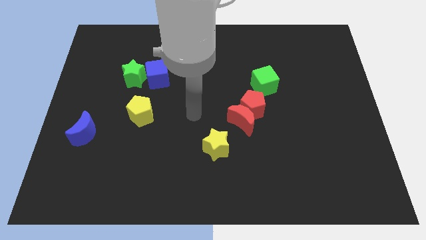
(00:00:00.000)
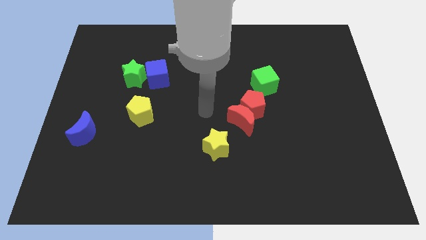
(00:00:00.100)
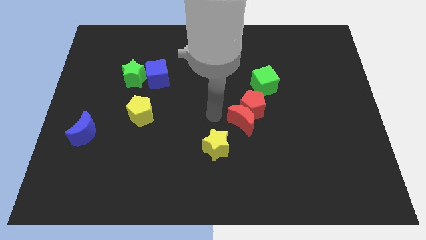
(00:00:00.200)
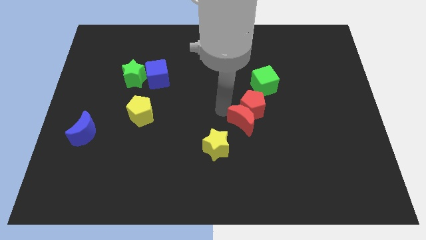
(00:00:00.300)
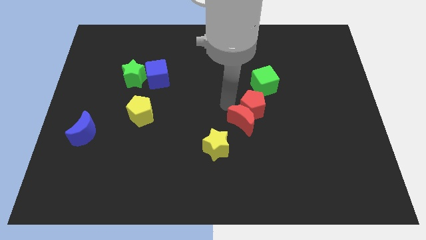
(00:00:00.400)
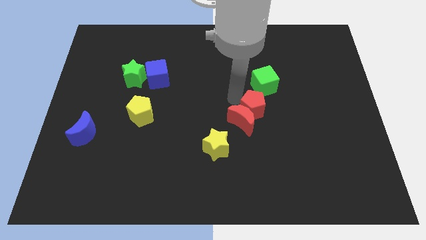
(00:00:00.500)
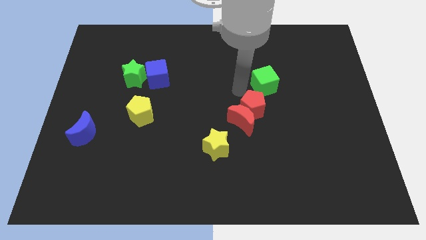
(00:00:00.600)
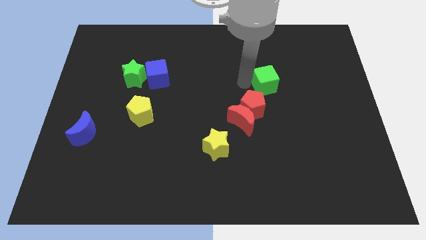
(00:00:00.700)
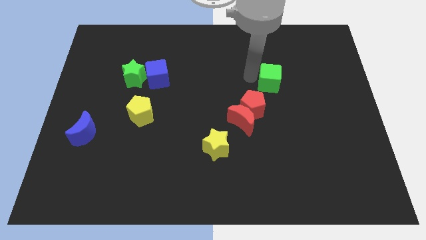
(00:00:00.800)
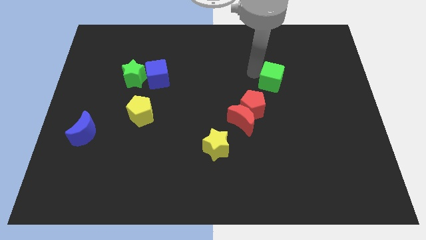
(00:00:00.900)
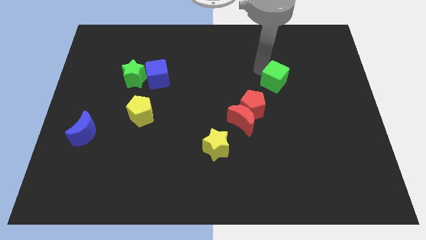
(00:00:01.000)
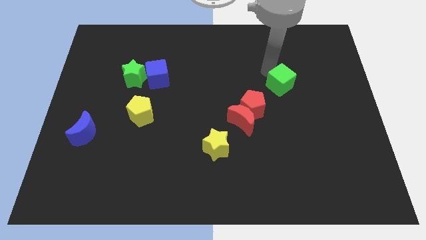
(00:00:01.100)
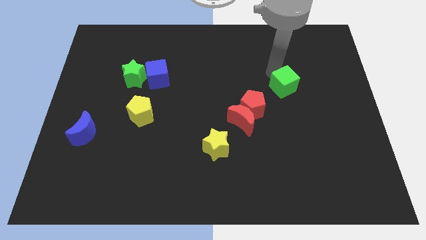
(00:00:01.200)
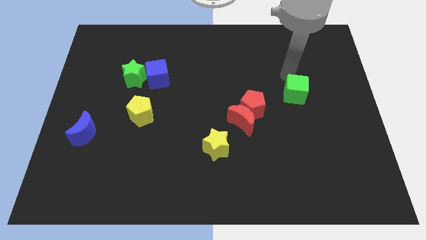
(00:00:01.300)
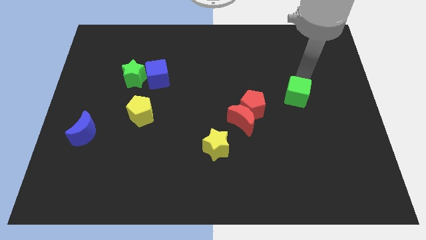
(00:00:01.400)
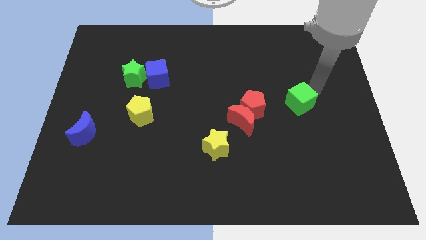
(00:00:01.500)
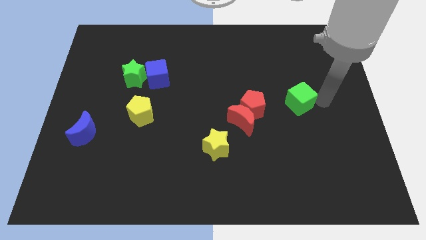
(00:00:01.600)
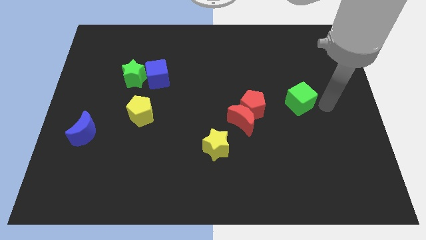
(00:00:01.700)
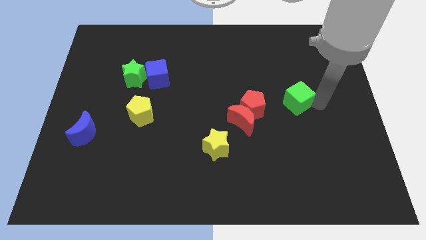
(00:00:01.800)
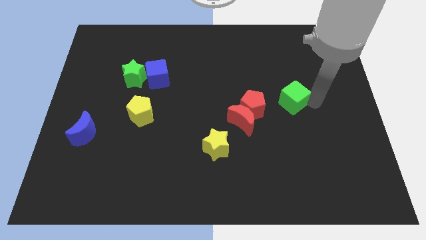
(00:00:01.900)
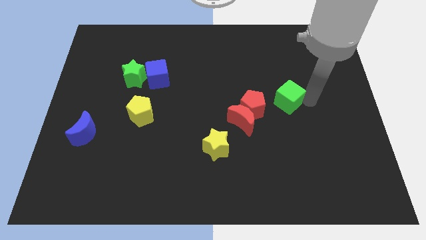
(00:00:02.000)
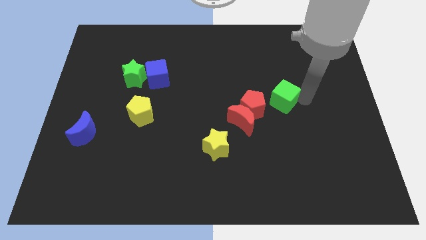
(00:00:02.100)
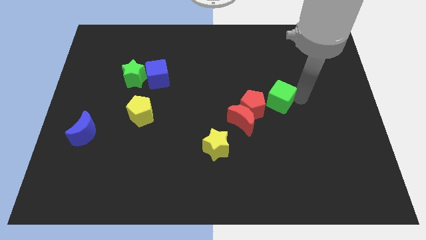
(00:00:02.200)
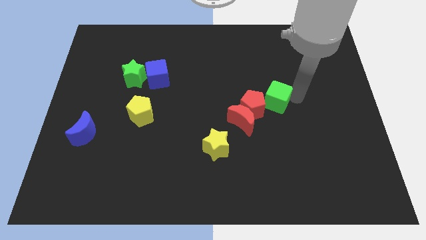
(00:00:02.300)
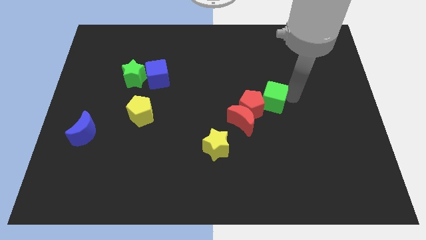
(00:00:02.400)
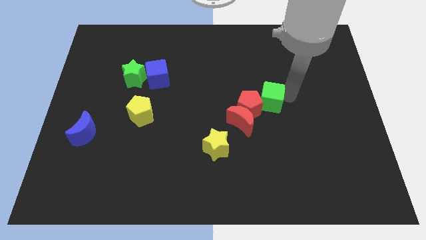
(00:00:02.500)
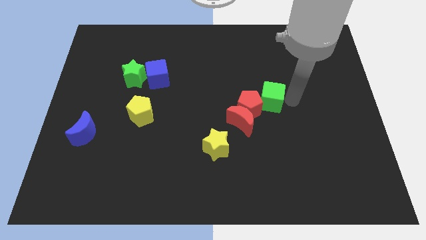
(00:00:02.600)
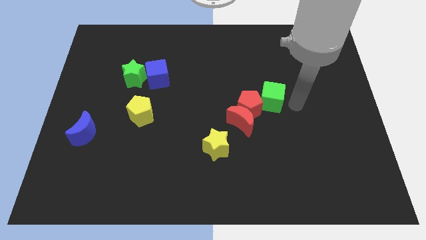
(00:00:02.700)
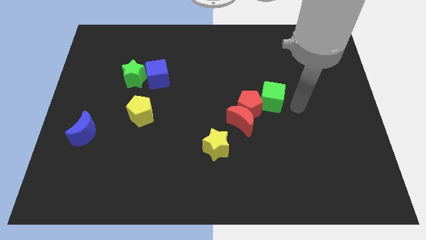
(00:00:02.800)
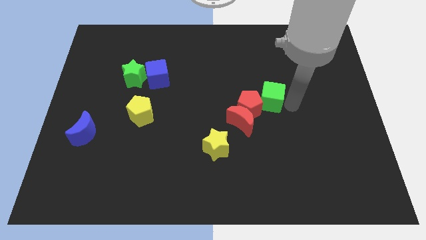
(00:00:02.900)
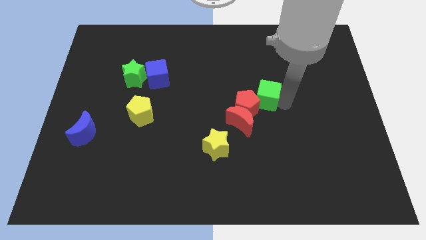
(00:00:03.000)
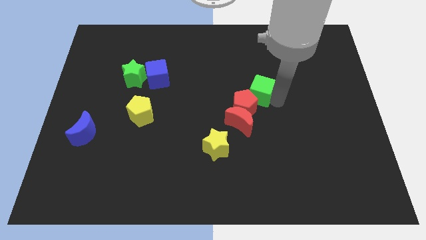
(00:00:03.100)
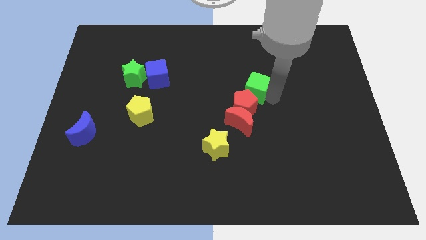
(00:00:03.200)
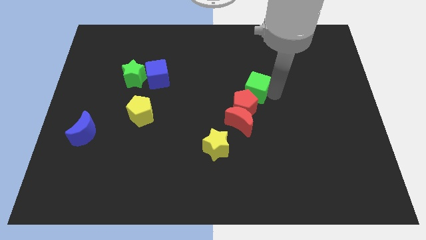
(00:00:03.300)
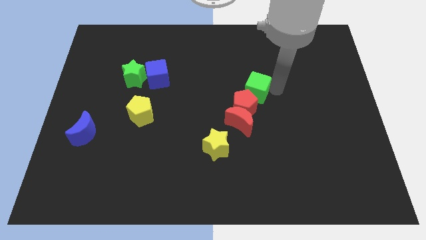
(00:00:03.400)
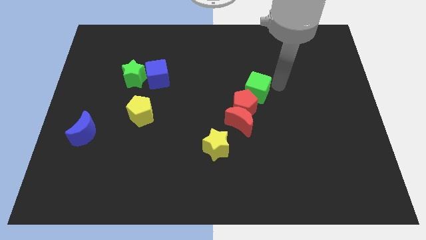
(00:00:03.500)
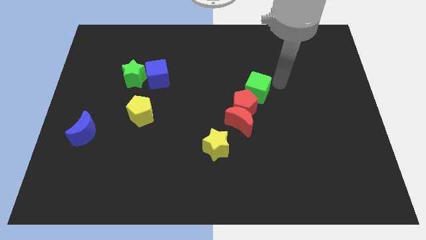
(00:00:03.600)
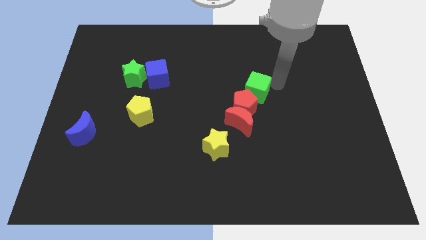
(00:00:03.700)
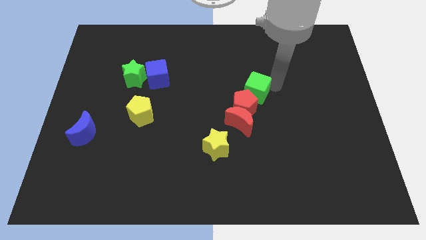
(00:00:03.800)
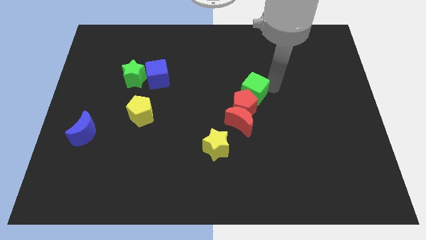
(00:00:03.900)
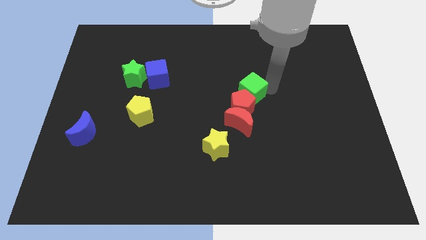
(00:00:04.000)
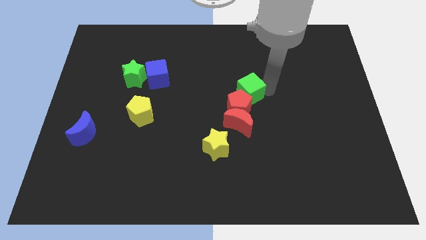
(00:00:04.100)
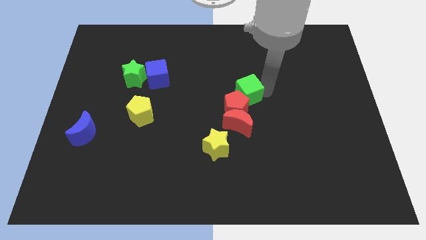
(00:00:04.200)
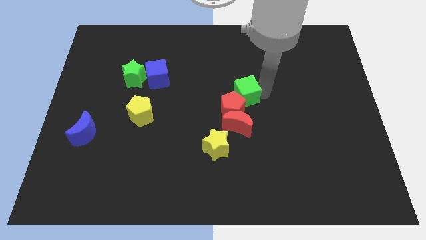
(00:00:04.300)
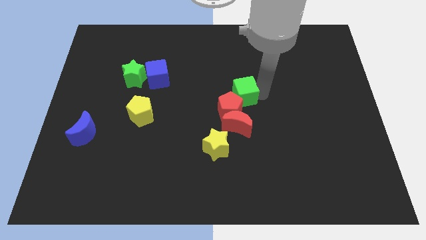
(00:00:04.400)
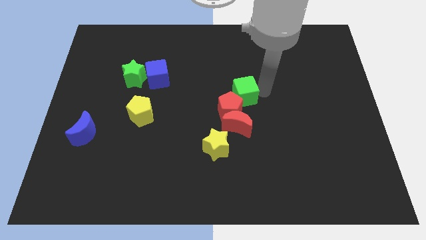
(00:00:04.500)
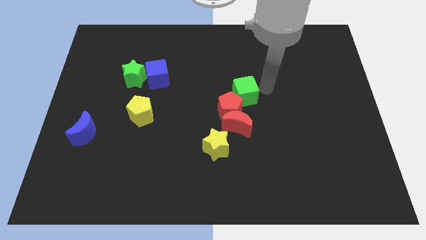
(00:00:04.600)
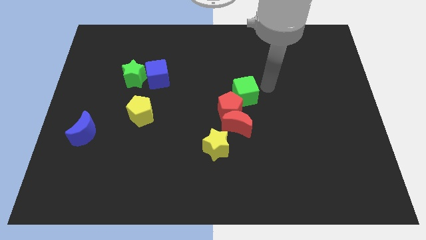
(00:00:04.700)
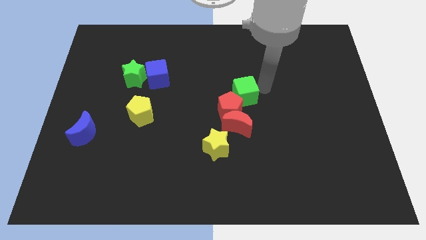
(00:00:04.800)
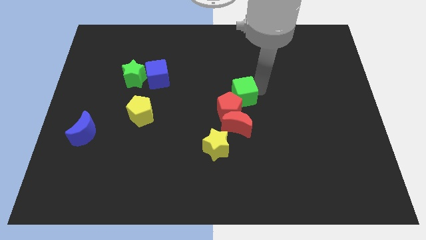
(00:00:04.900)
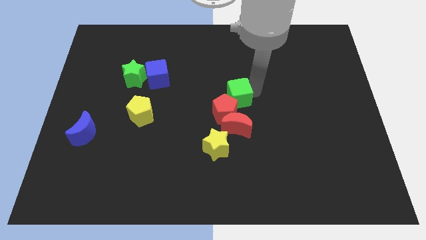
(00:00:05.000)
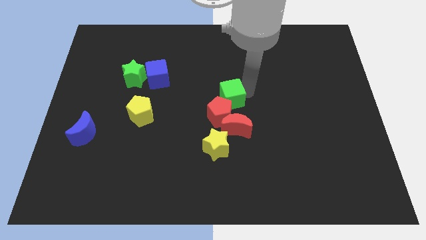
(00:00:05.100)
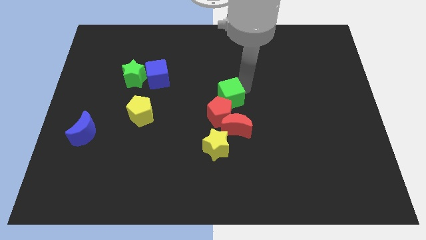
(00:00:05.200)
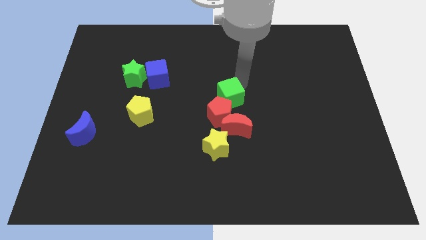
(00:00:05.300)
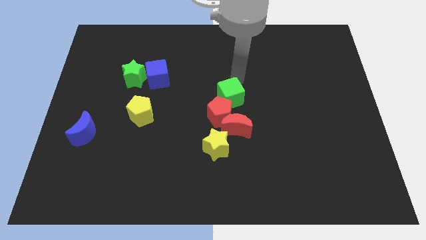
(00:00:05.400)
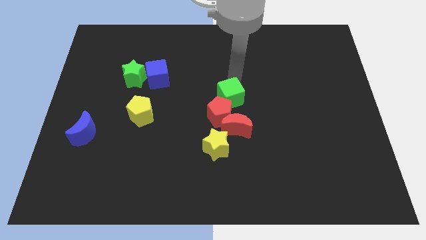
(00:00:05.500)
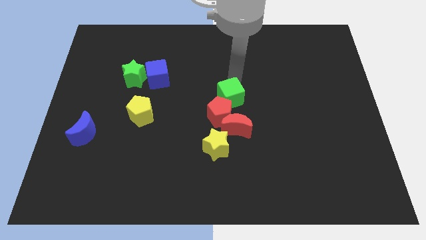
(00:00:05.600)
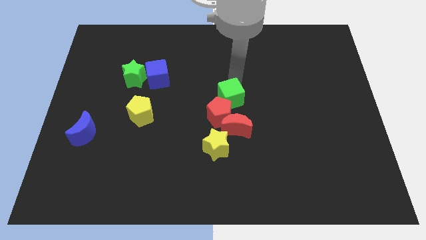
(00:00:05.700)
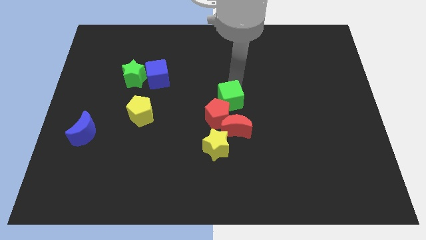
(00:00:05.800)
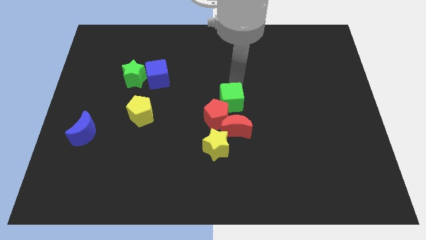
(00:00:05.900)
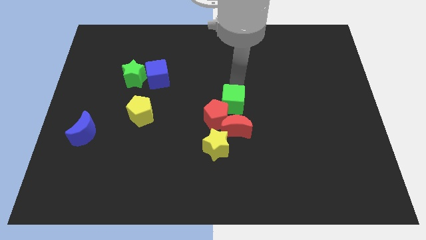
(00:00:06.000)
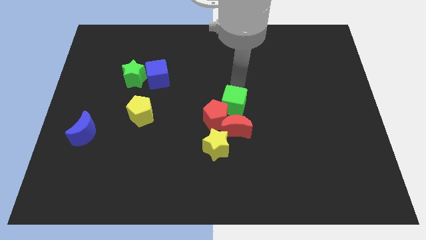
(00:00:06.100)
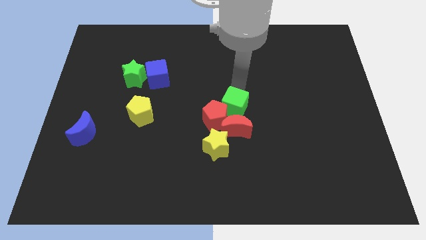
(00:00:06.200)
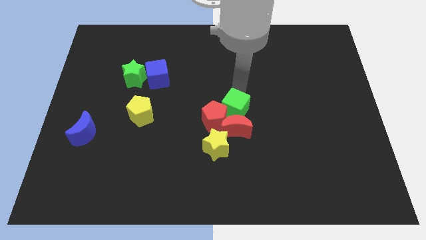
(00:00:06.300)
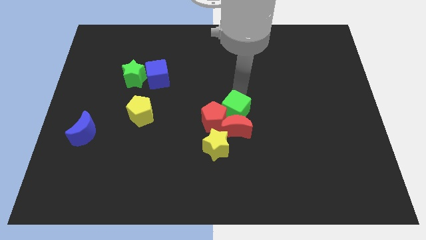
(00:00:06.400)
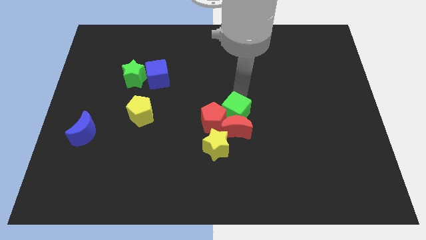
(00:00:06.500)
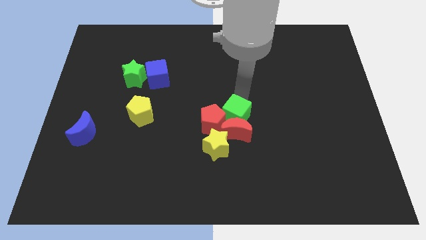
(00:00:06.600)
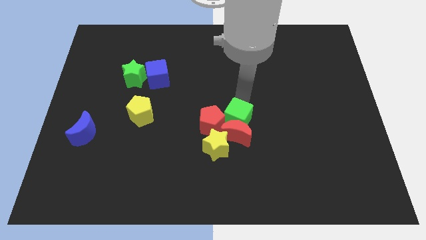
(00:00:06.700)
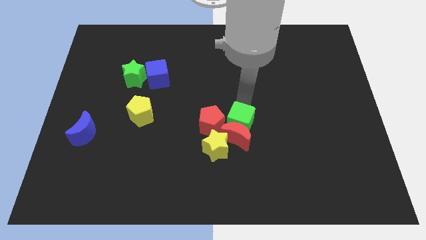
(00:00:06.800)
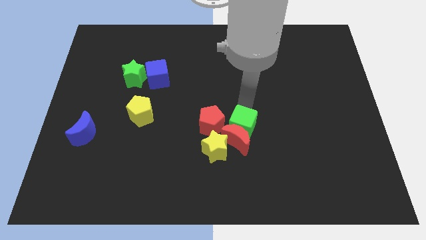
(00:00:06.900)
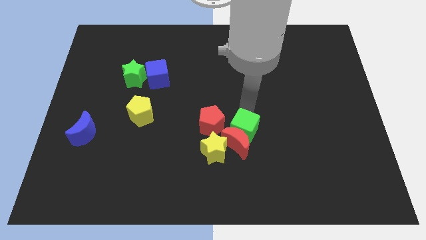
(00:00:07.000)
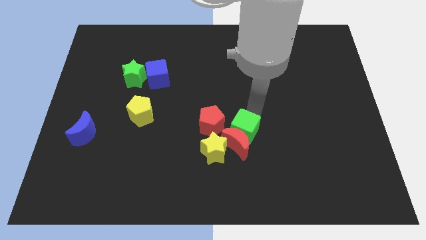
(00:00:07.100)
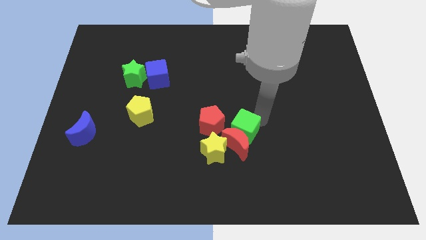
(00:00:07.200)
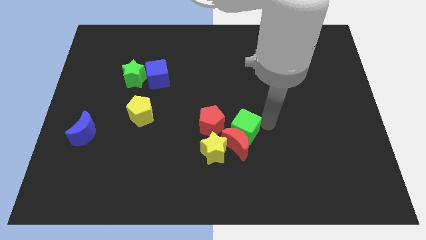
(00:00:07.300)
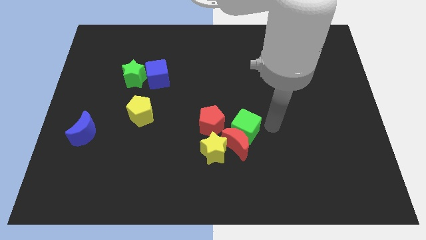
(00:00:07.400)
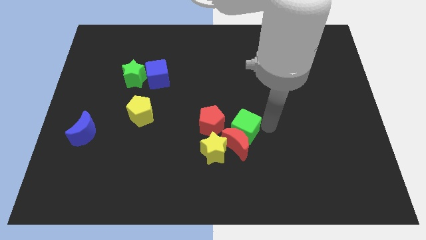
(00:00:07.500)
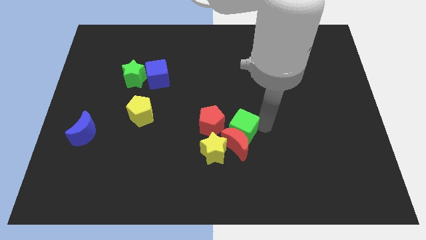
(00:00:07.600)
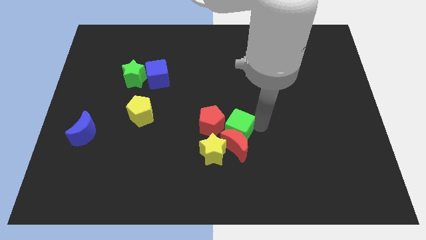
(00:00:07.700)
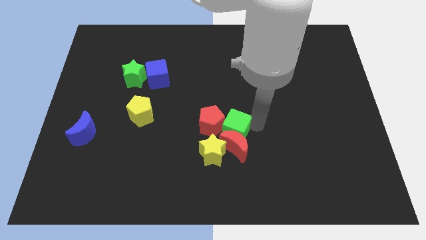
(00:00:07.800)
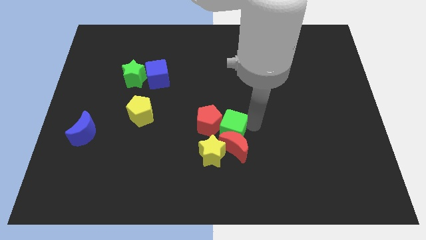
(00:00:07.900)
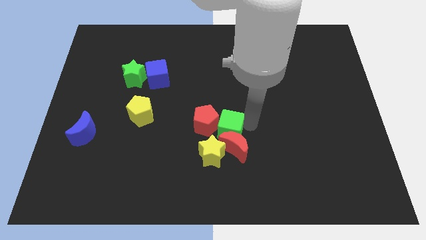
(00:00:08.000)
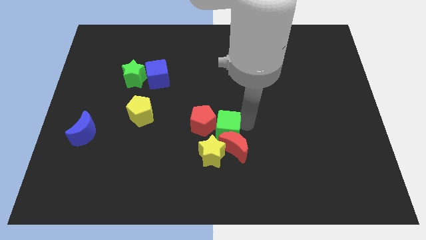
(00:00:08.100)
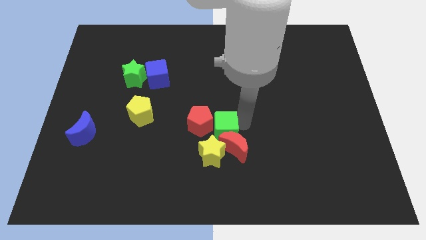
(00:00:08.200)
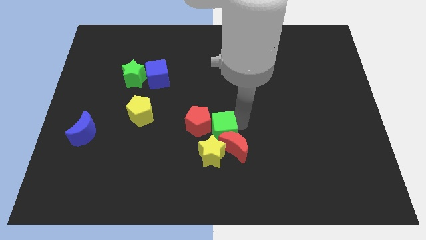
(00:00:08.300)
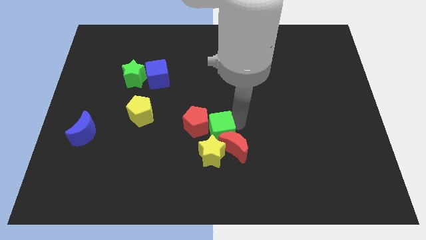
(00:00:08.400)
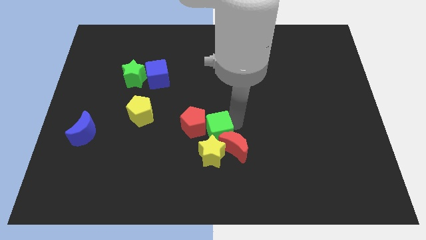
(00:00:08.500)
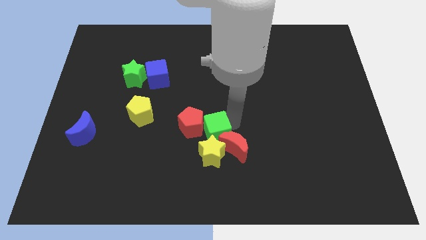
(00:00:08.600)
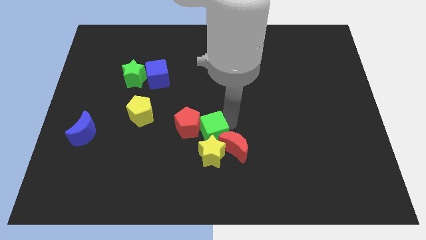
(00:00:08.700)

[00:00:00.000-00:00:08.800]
slide the green cube towards the yellow star
